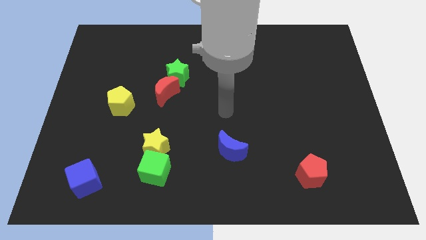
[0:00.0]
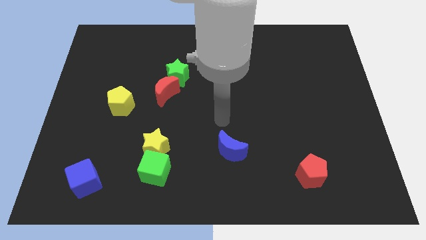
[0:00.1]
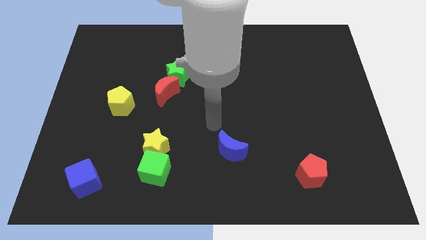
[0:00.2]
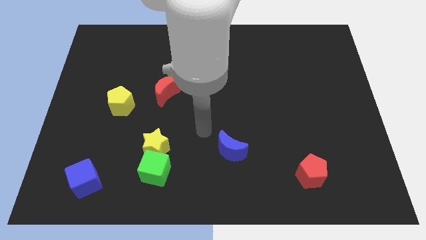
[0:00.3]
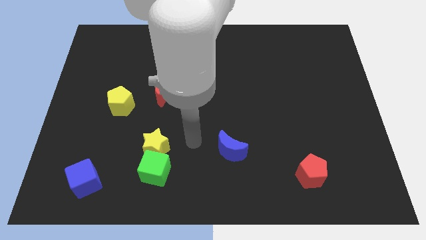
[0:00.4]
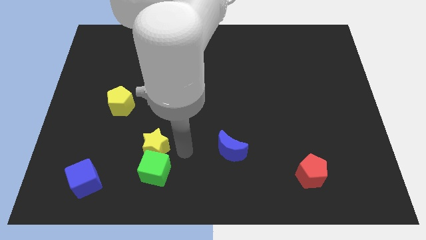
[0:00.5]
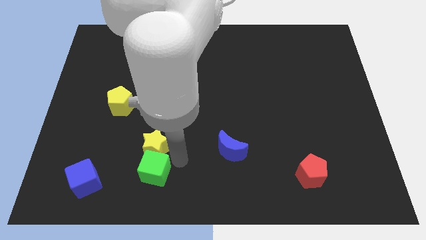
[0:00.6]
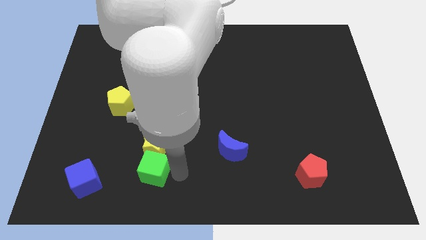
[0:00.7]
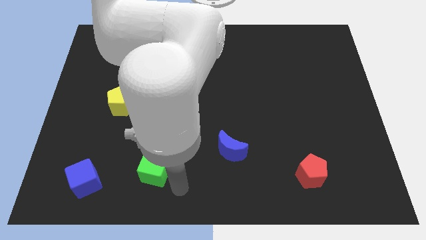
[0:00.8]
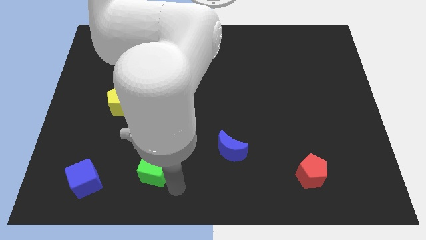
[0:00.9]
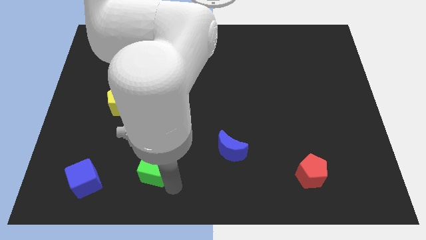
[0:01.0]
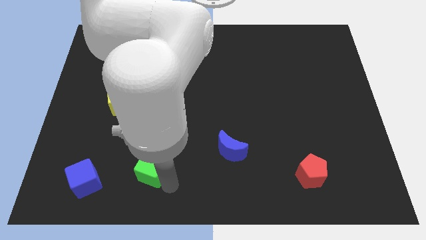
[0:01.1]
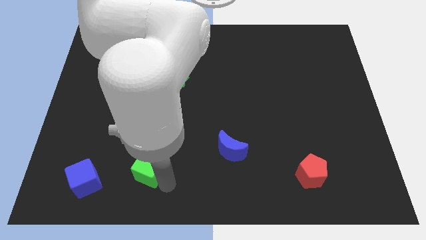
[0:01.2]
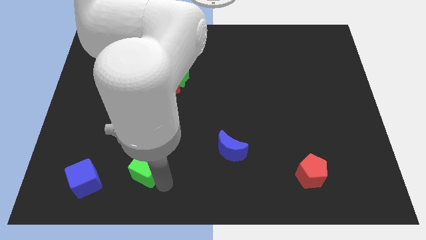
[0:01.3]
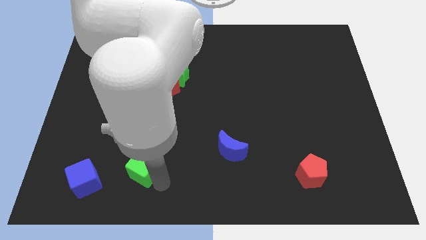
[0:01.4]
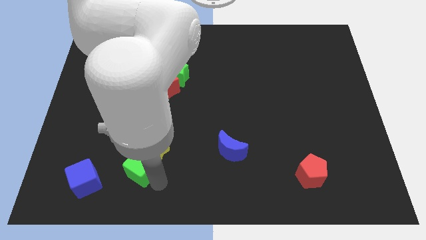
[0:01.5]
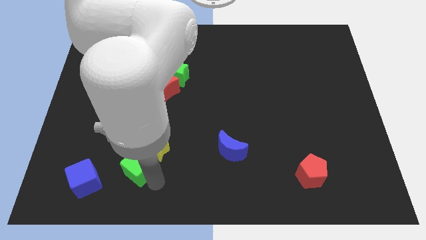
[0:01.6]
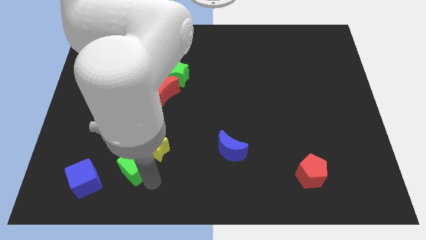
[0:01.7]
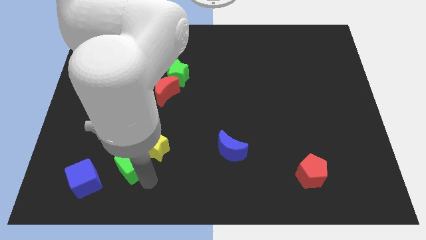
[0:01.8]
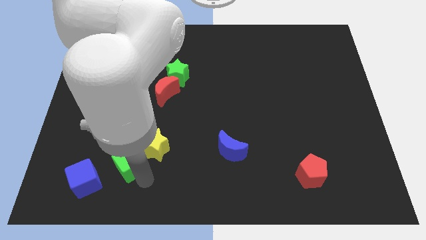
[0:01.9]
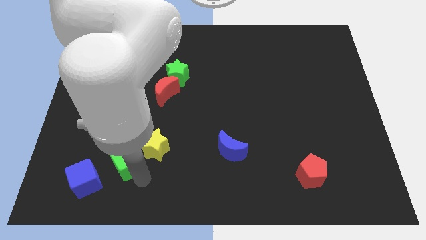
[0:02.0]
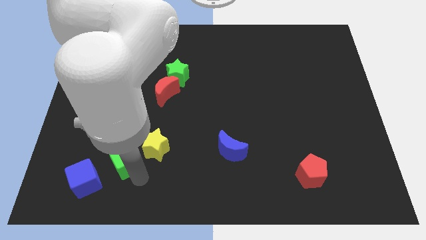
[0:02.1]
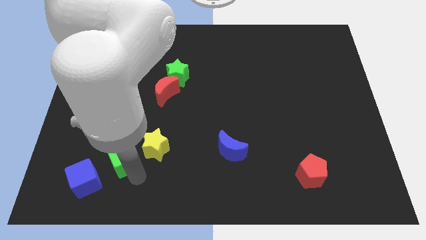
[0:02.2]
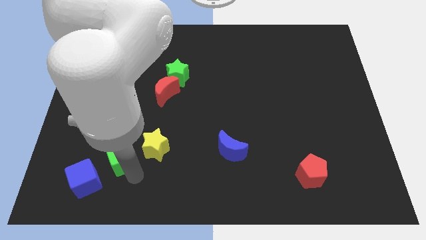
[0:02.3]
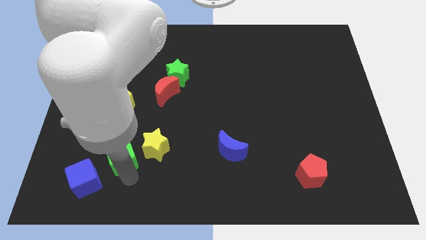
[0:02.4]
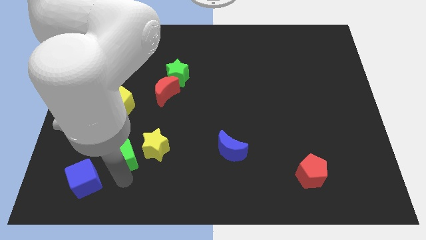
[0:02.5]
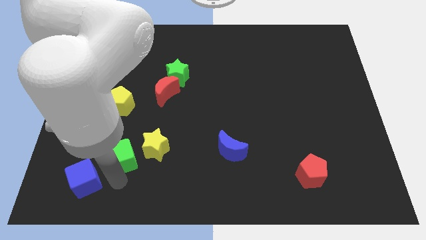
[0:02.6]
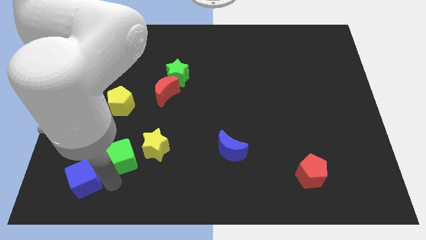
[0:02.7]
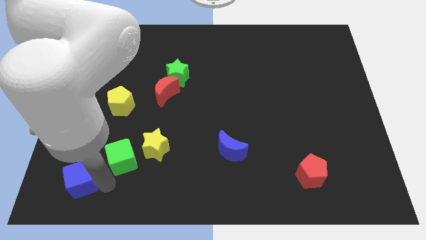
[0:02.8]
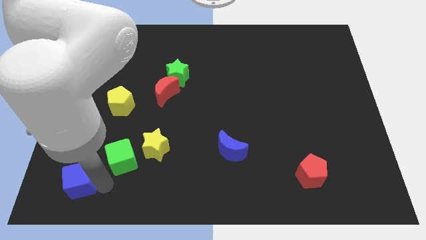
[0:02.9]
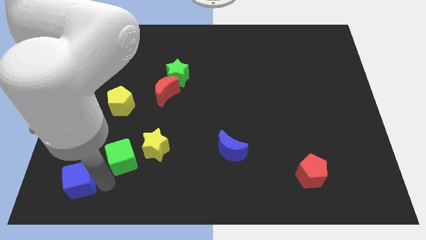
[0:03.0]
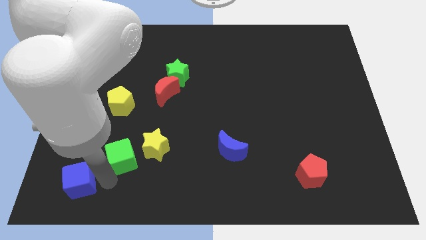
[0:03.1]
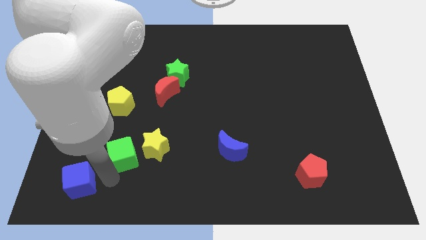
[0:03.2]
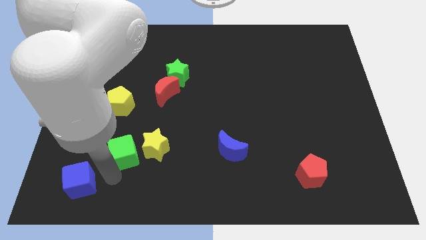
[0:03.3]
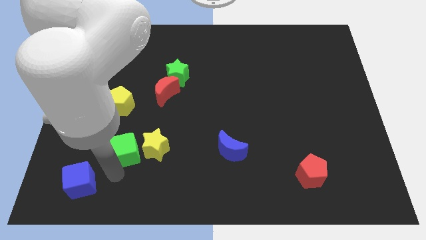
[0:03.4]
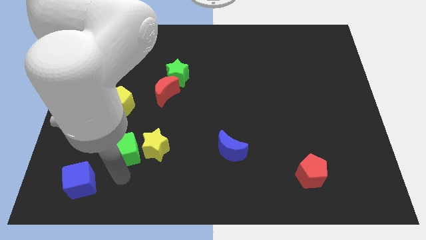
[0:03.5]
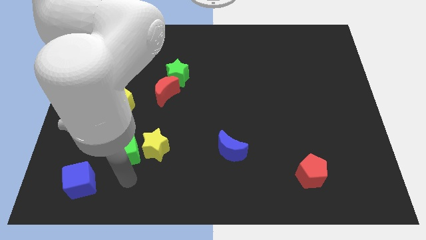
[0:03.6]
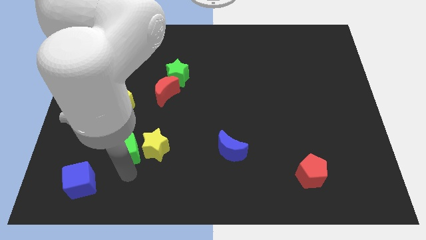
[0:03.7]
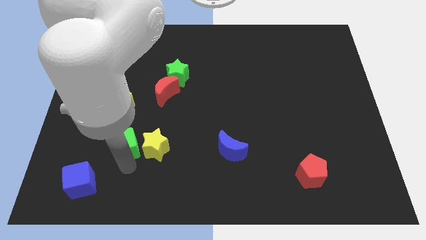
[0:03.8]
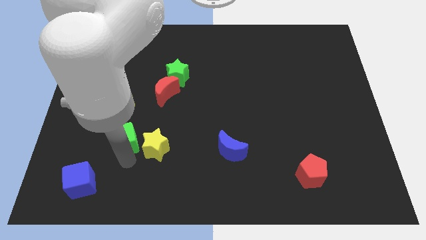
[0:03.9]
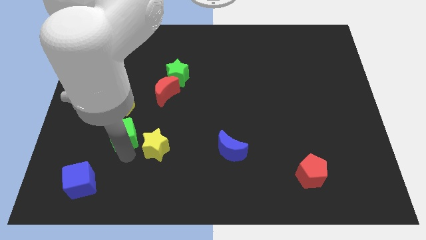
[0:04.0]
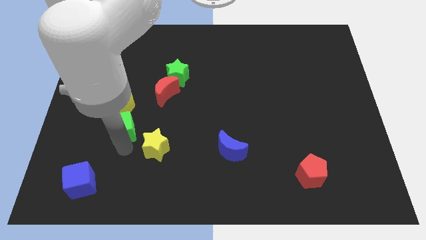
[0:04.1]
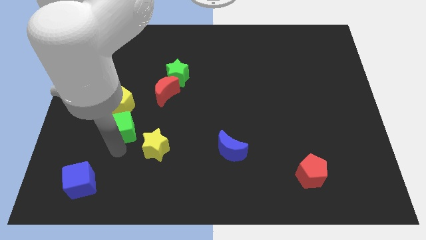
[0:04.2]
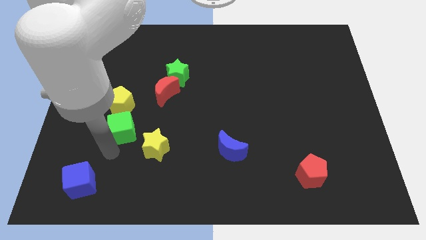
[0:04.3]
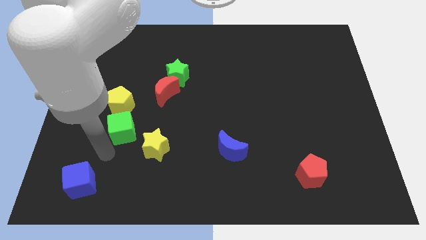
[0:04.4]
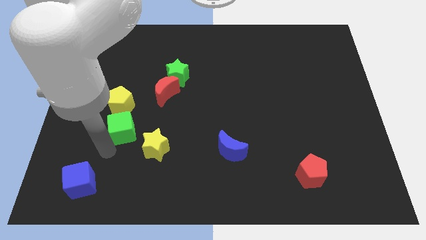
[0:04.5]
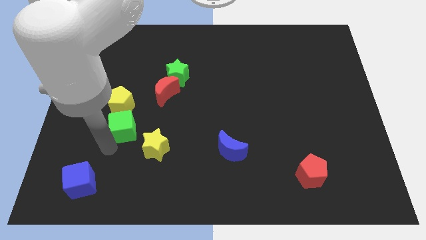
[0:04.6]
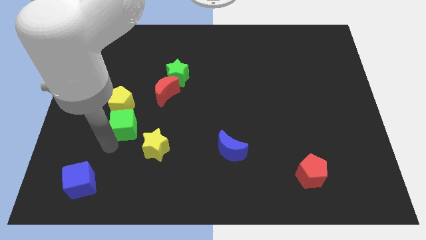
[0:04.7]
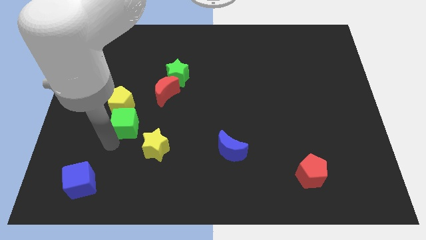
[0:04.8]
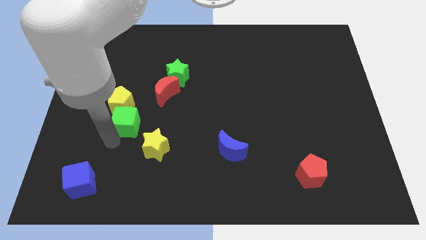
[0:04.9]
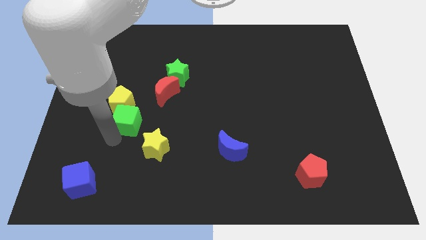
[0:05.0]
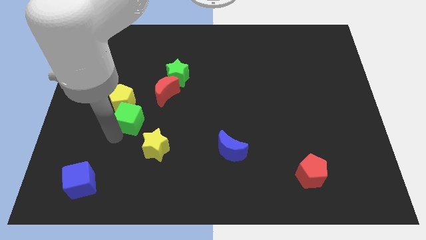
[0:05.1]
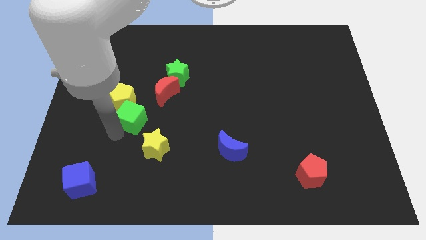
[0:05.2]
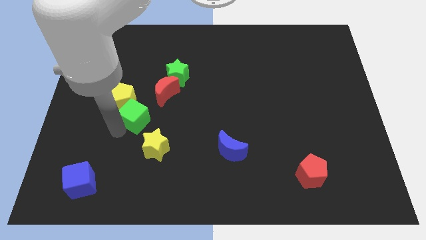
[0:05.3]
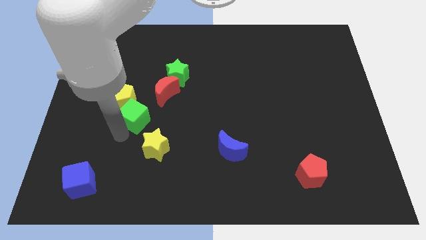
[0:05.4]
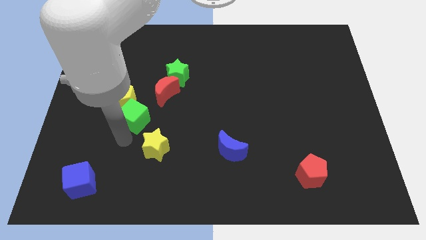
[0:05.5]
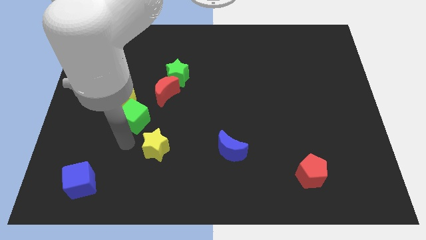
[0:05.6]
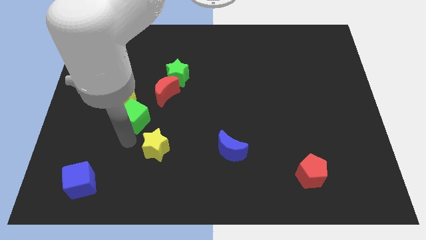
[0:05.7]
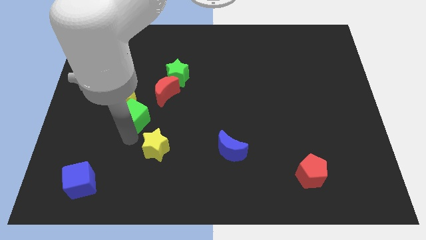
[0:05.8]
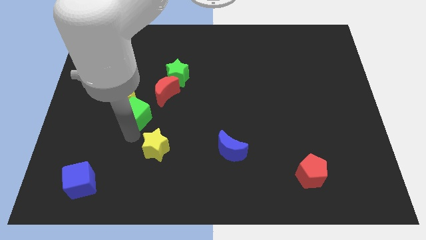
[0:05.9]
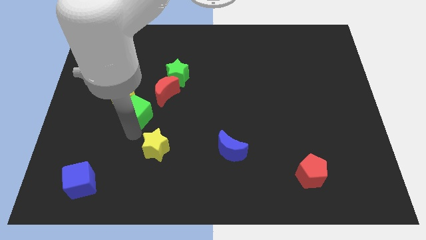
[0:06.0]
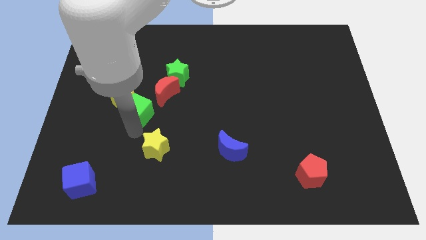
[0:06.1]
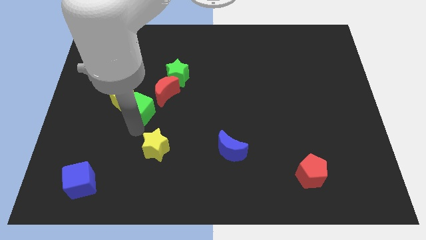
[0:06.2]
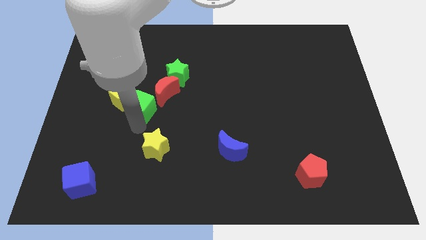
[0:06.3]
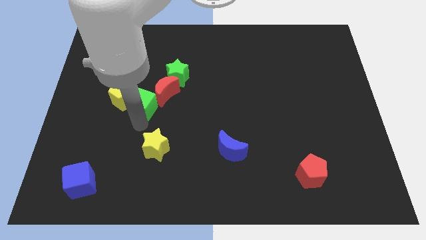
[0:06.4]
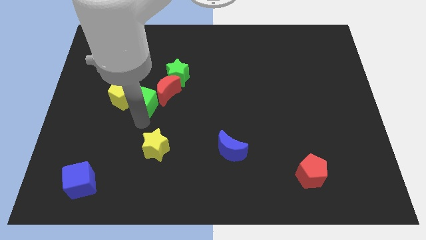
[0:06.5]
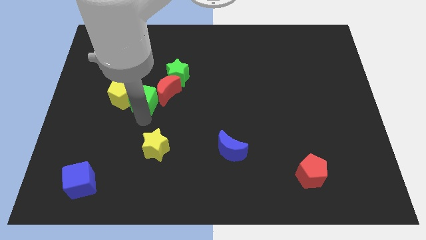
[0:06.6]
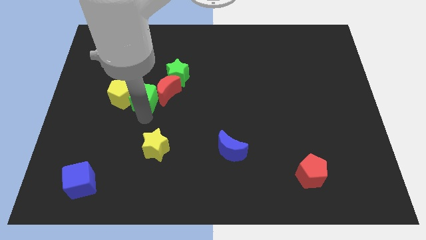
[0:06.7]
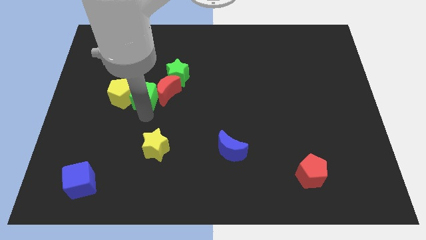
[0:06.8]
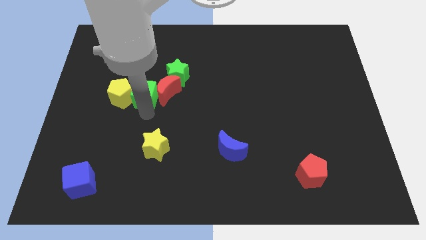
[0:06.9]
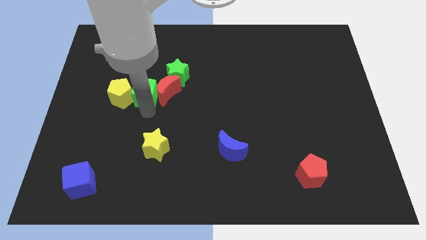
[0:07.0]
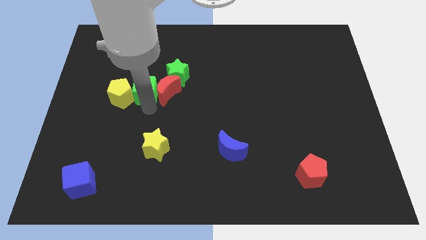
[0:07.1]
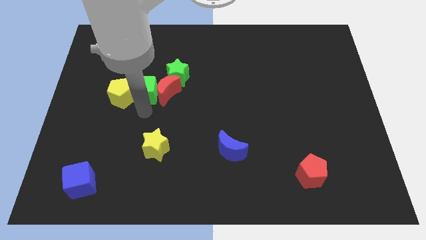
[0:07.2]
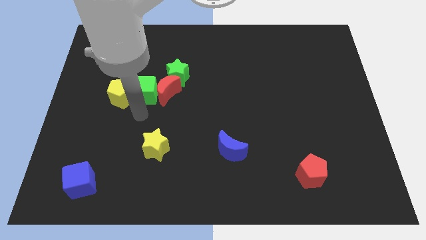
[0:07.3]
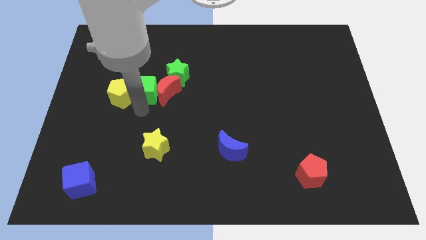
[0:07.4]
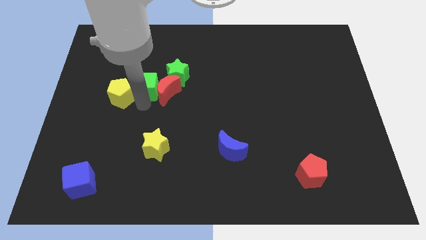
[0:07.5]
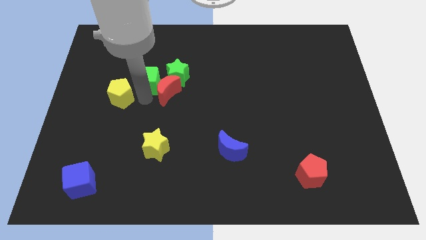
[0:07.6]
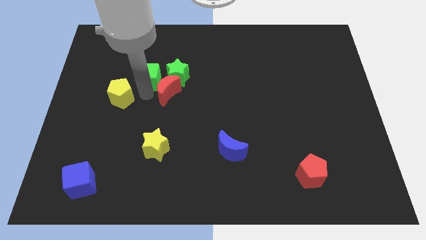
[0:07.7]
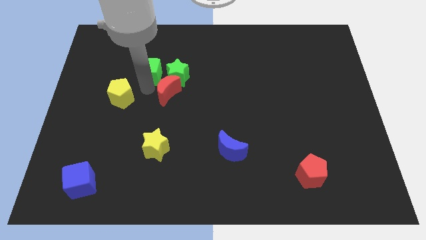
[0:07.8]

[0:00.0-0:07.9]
move the green cube diagonally up and to the left of the green star
